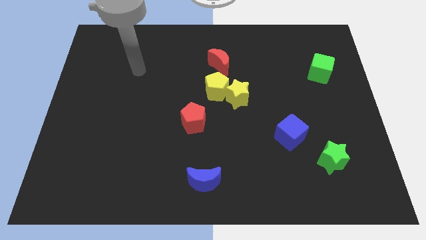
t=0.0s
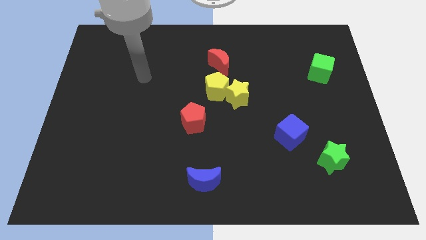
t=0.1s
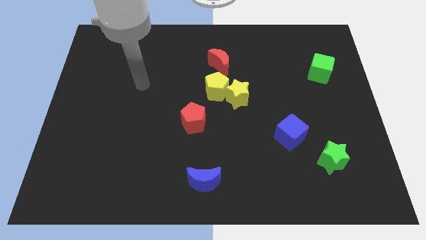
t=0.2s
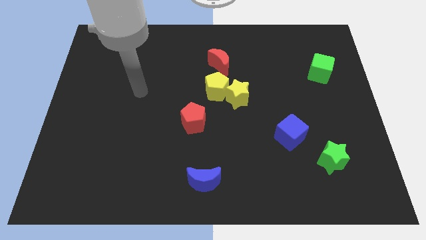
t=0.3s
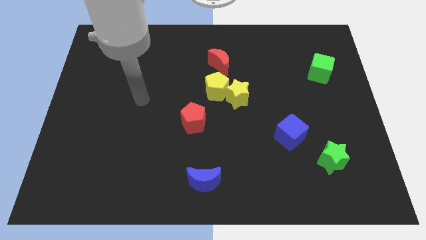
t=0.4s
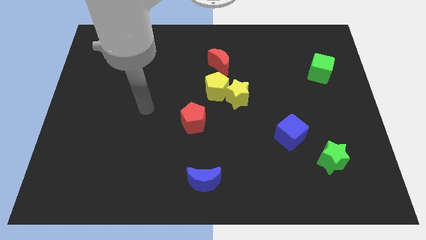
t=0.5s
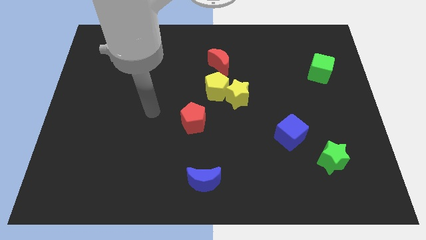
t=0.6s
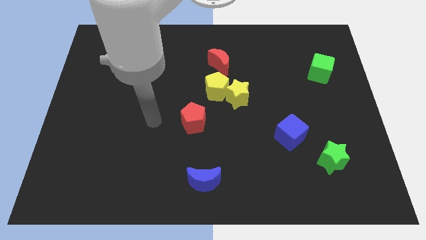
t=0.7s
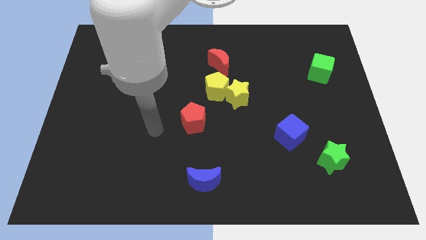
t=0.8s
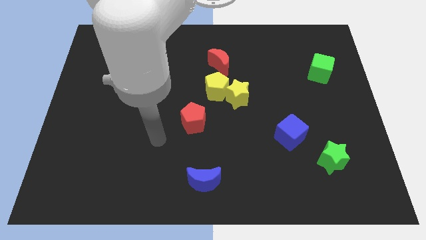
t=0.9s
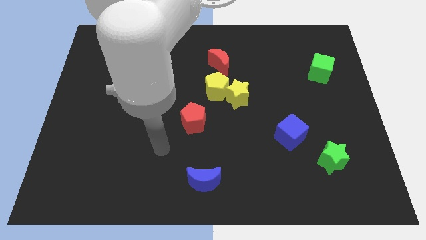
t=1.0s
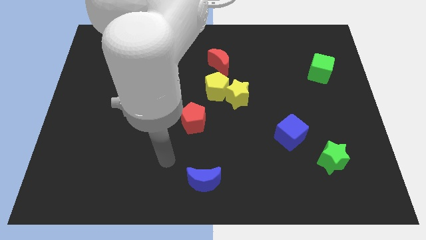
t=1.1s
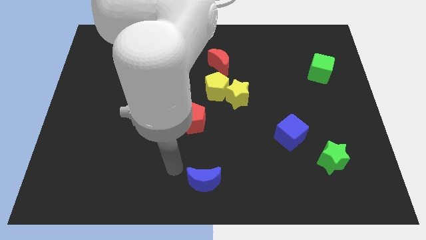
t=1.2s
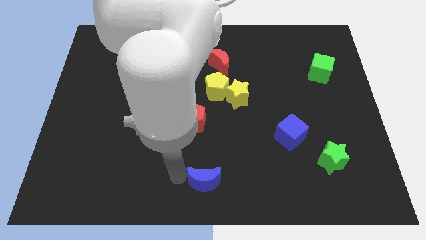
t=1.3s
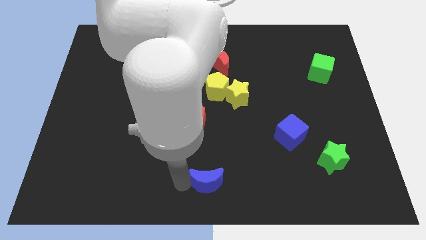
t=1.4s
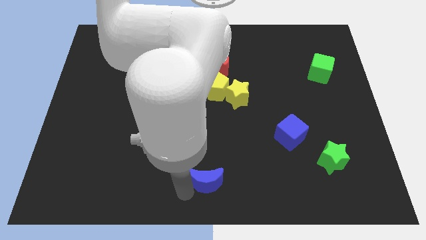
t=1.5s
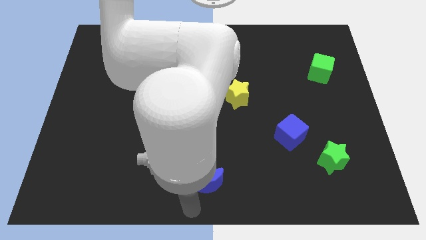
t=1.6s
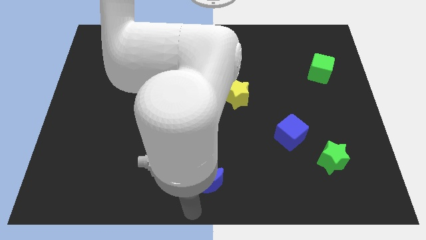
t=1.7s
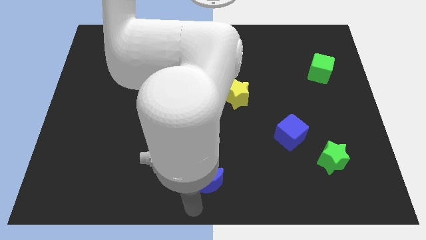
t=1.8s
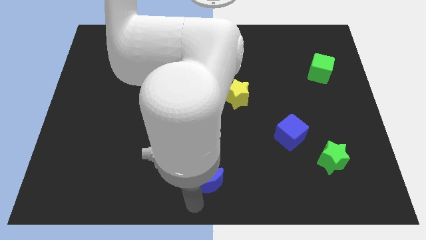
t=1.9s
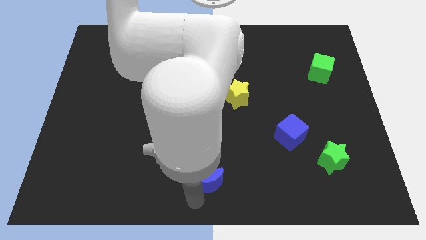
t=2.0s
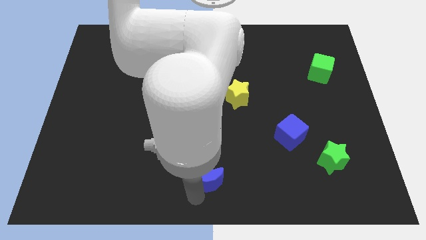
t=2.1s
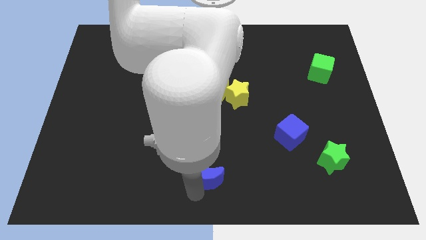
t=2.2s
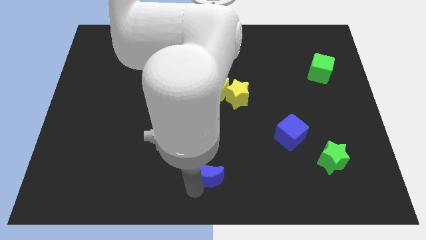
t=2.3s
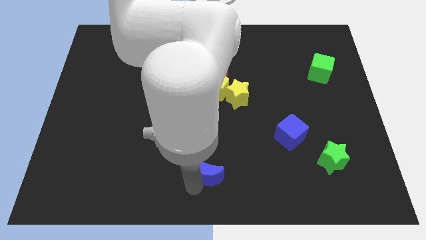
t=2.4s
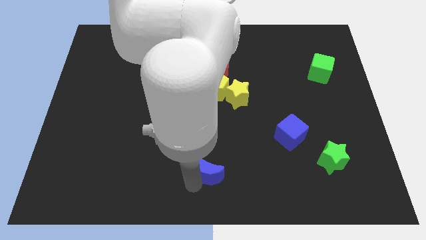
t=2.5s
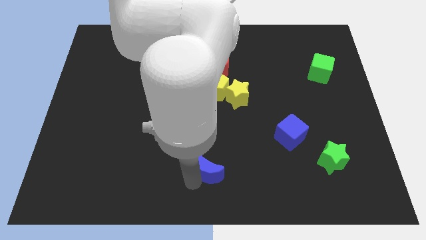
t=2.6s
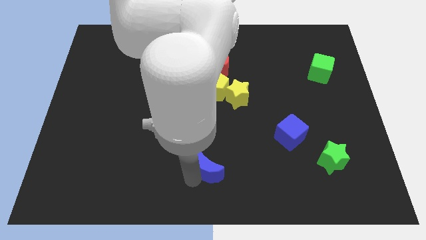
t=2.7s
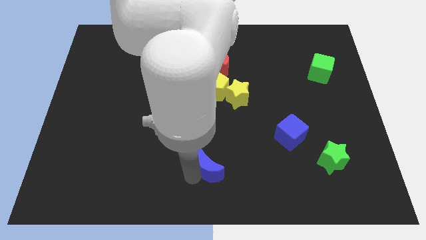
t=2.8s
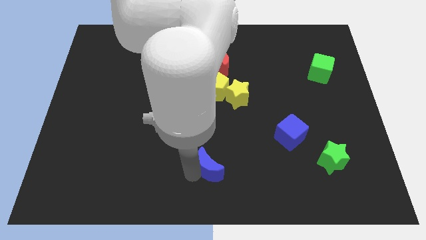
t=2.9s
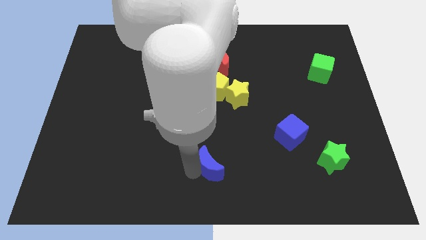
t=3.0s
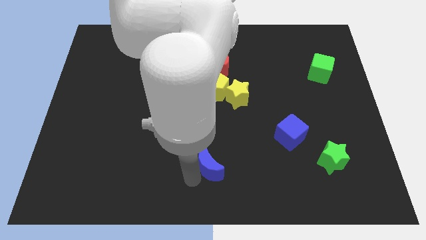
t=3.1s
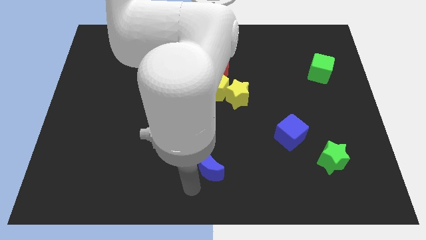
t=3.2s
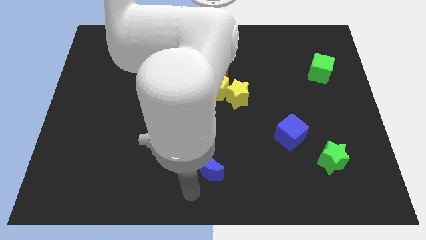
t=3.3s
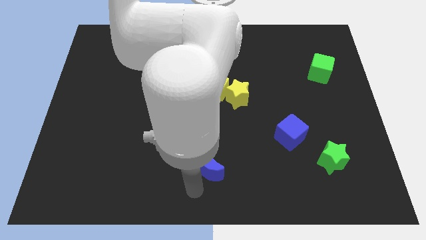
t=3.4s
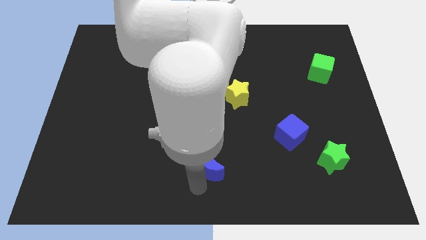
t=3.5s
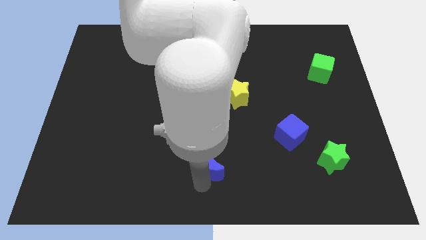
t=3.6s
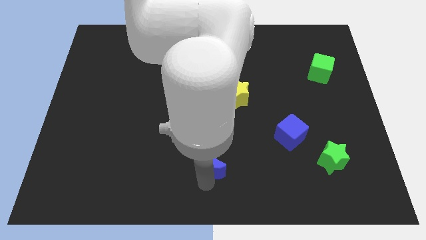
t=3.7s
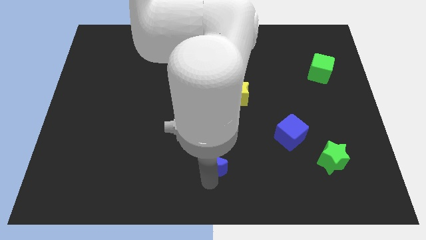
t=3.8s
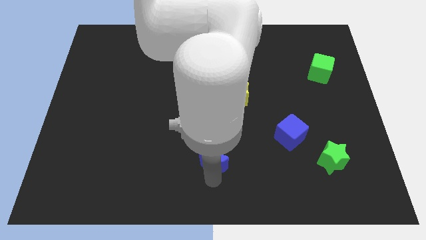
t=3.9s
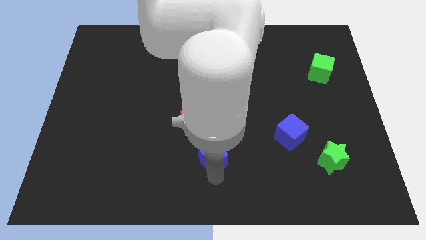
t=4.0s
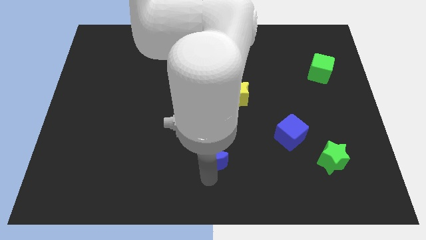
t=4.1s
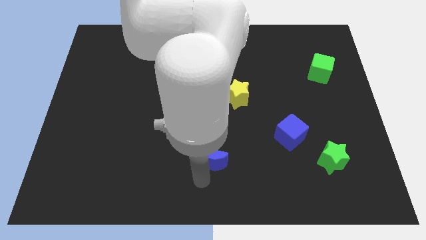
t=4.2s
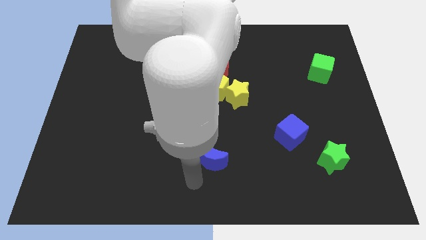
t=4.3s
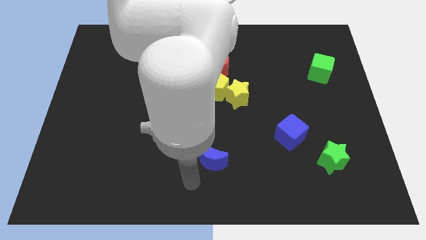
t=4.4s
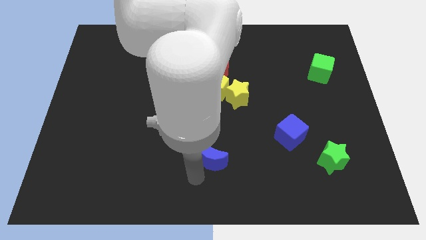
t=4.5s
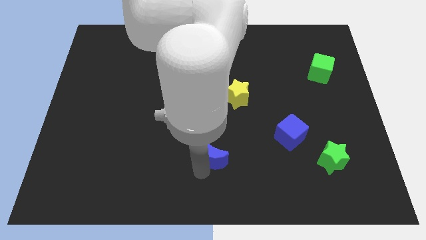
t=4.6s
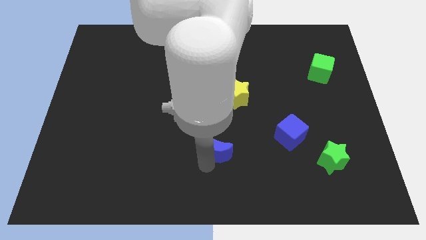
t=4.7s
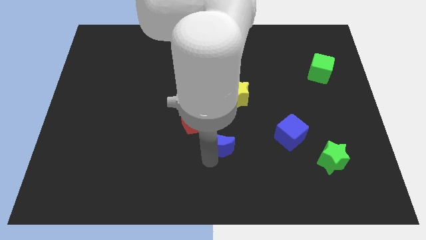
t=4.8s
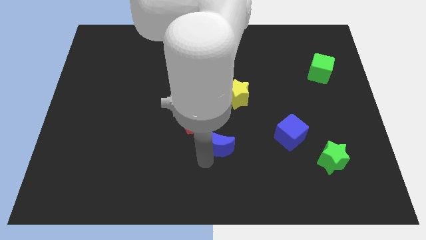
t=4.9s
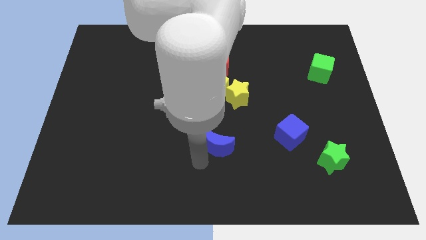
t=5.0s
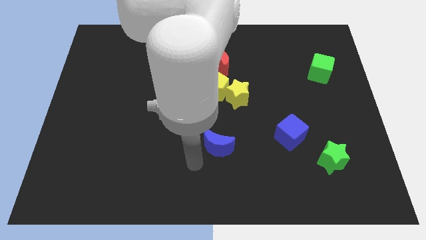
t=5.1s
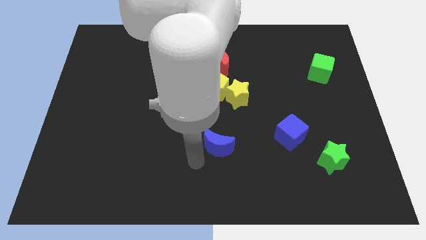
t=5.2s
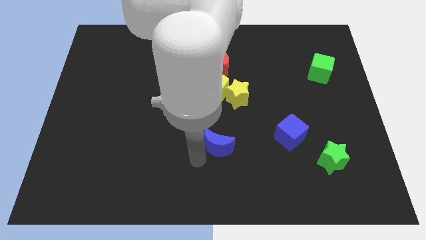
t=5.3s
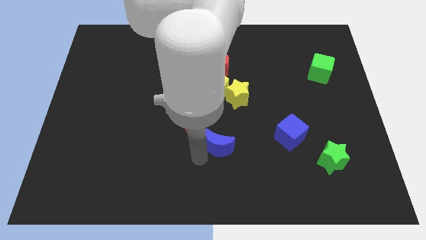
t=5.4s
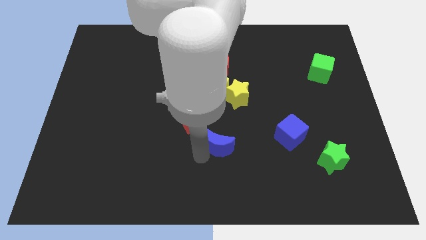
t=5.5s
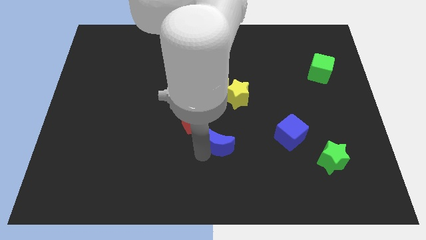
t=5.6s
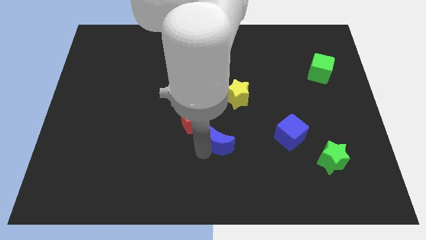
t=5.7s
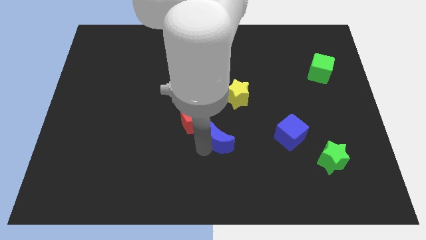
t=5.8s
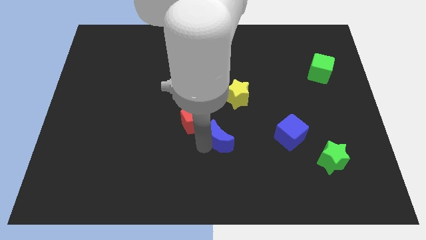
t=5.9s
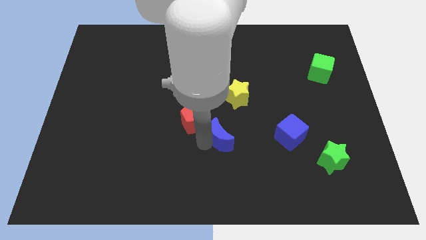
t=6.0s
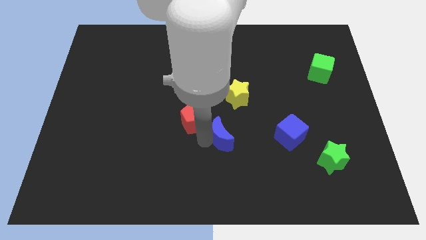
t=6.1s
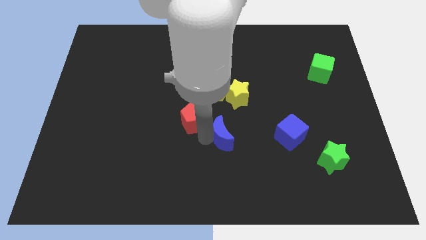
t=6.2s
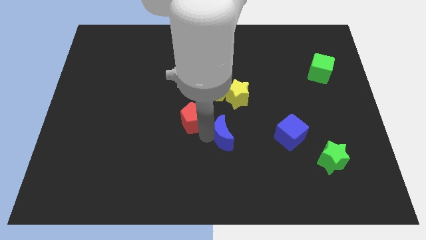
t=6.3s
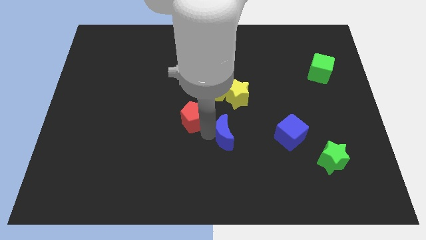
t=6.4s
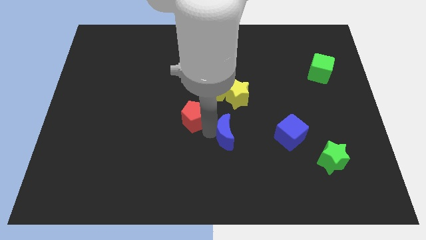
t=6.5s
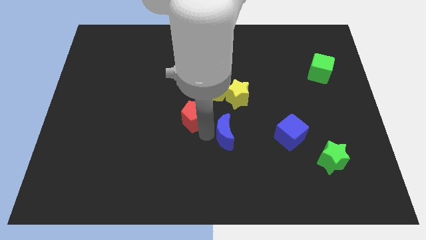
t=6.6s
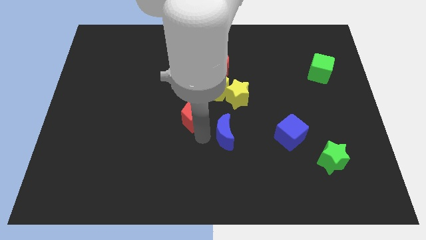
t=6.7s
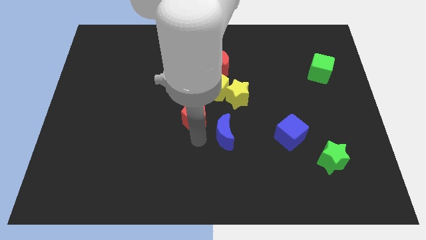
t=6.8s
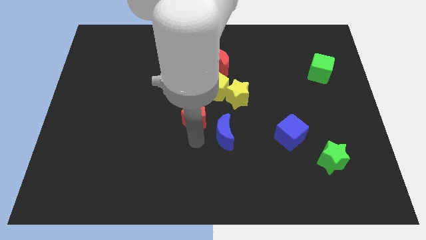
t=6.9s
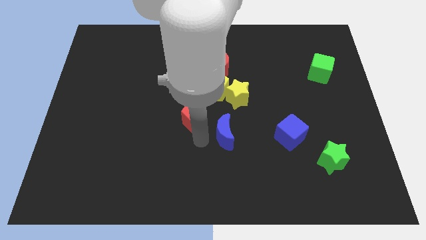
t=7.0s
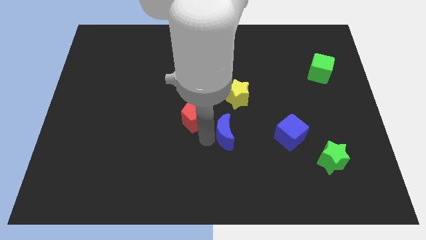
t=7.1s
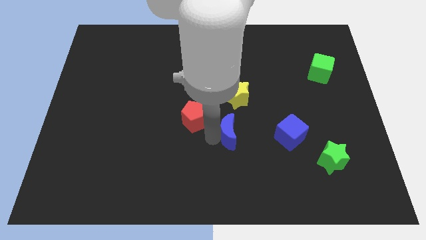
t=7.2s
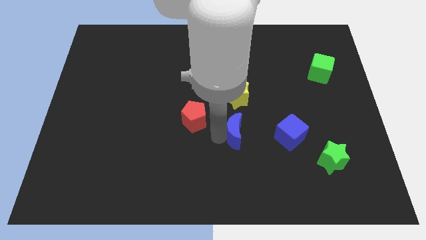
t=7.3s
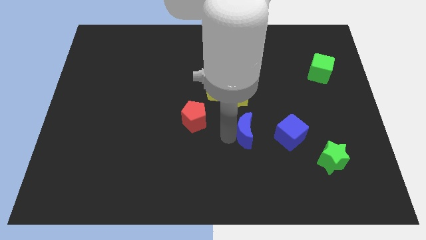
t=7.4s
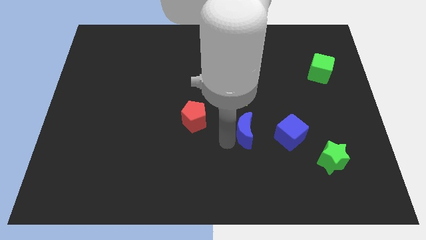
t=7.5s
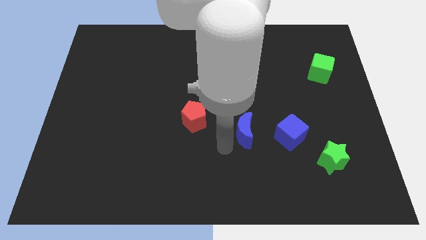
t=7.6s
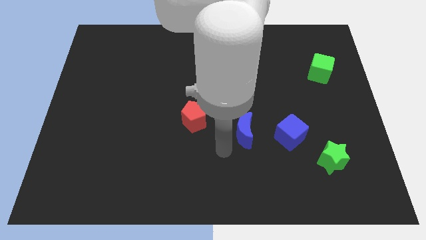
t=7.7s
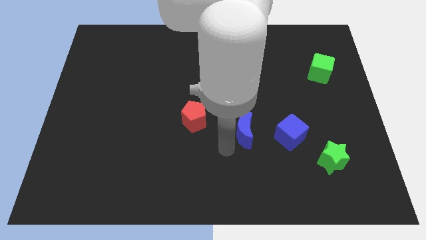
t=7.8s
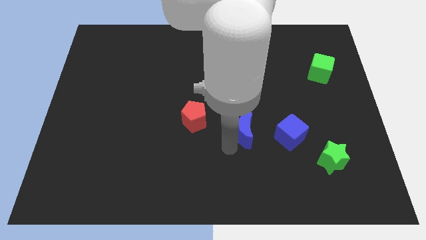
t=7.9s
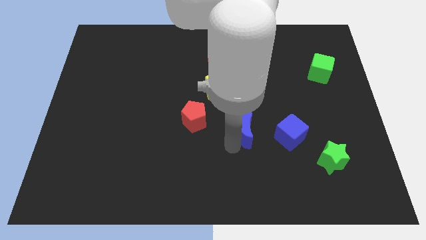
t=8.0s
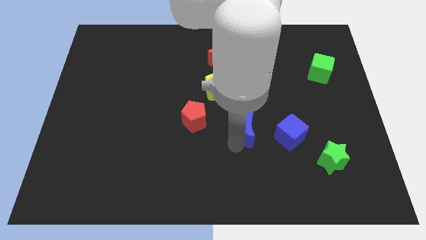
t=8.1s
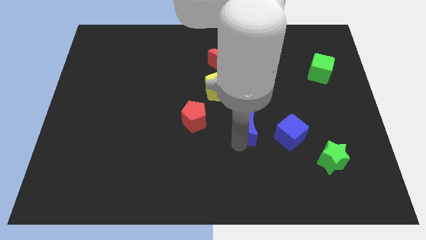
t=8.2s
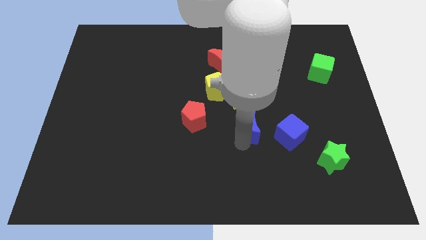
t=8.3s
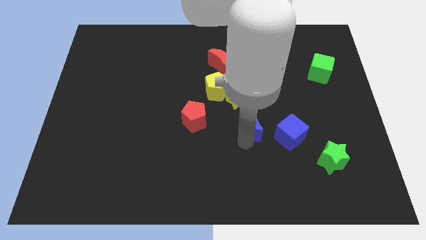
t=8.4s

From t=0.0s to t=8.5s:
slide the blue moon to the top left side of the blue cube
